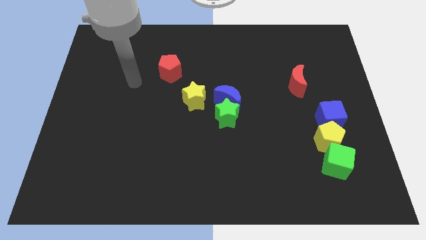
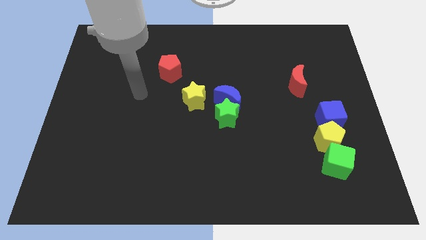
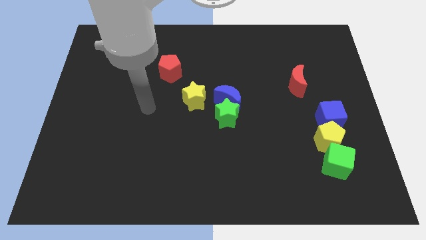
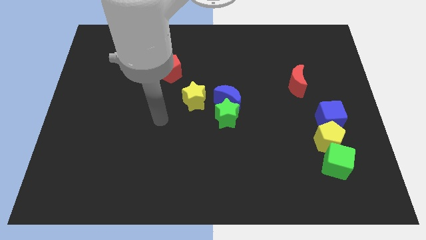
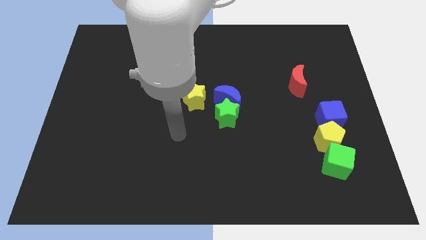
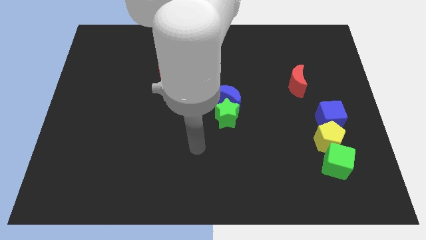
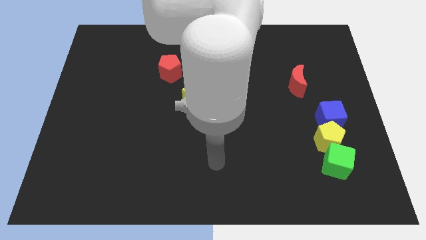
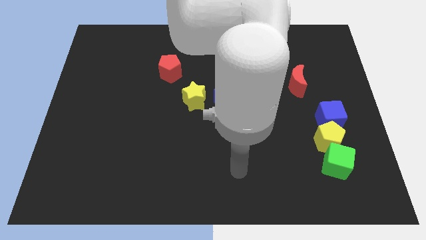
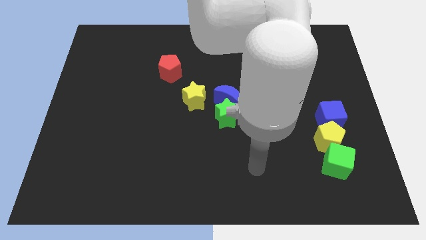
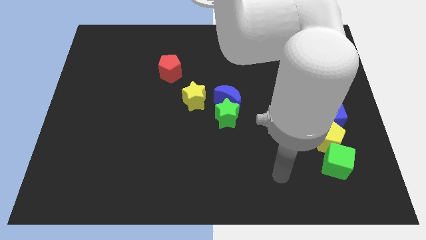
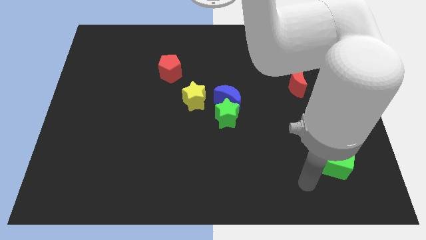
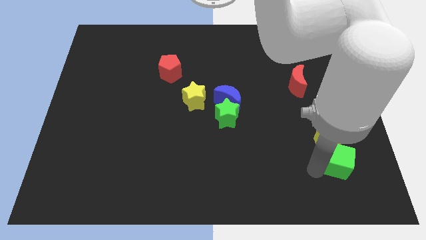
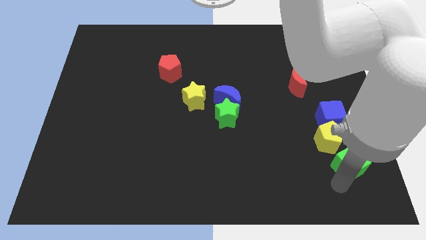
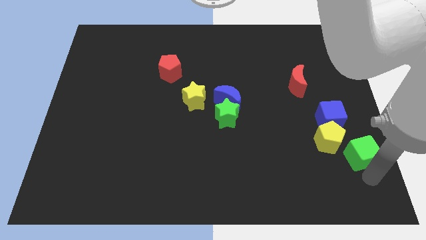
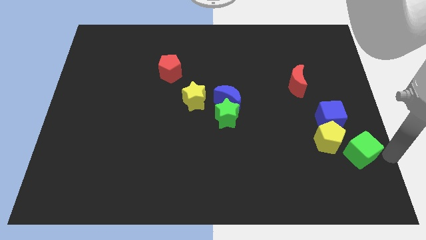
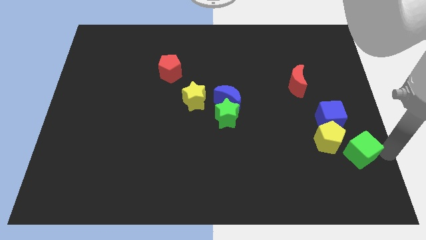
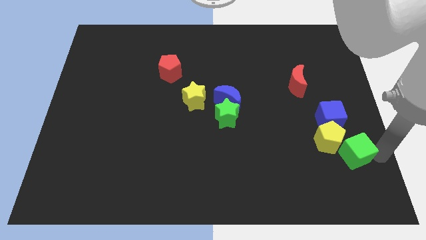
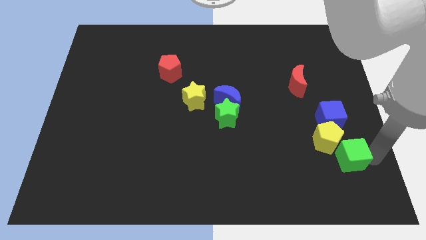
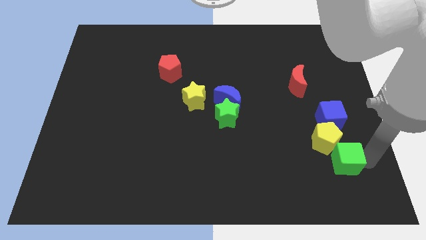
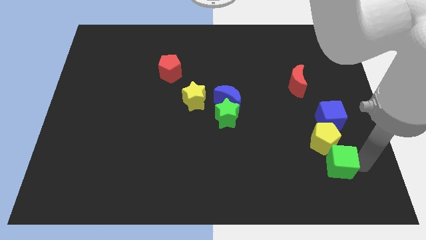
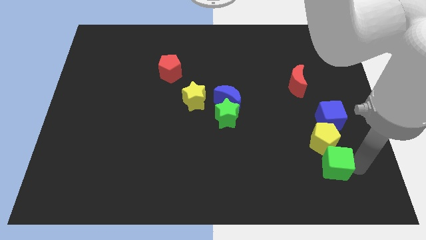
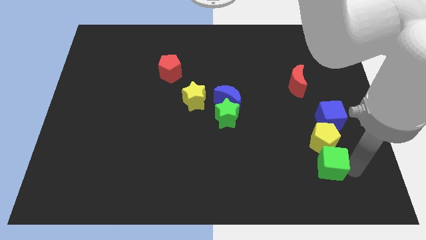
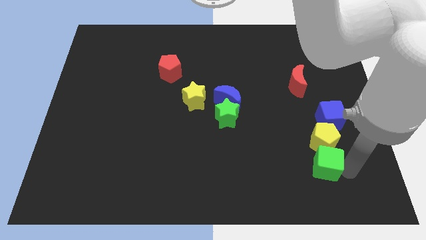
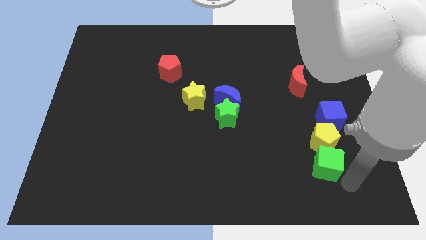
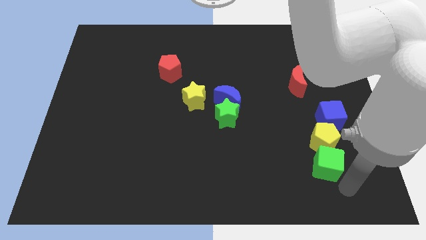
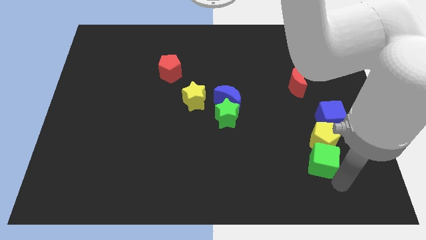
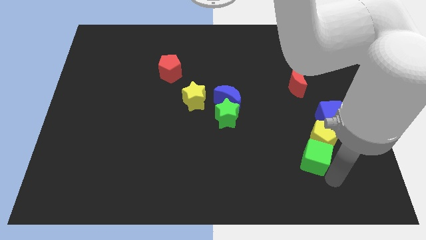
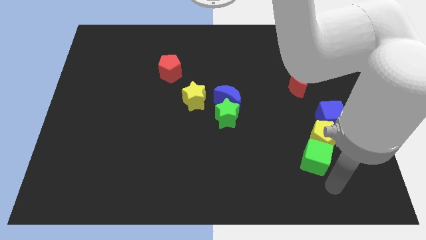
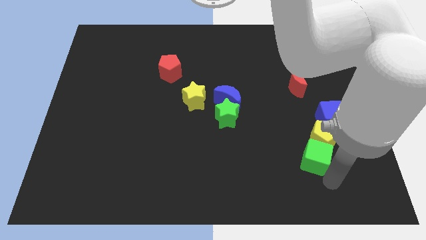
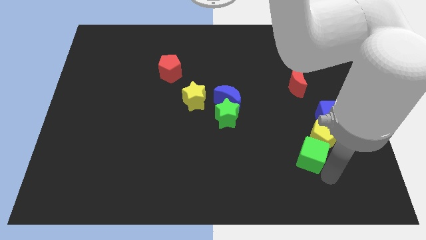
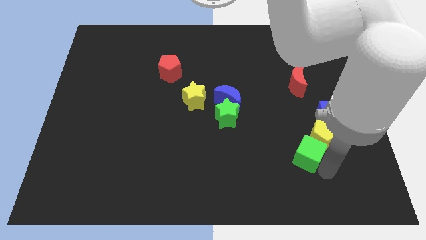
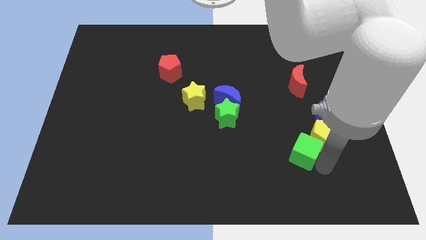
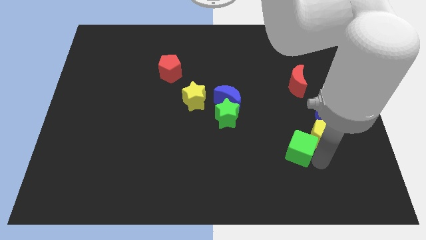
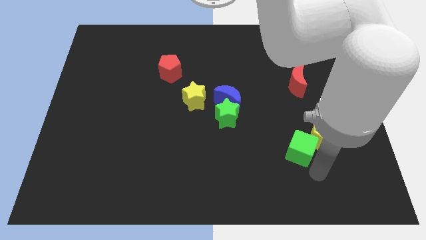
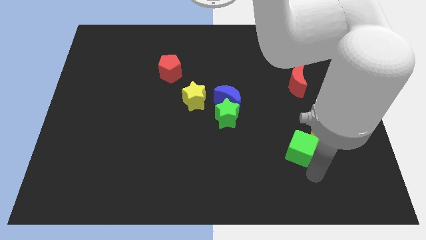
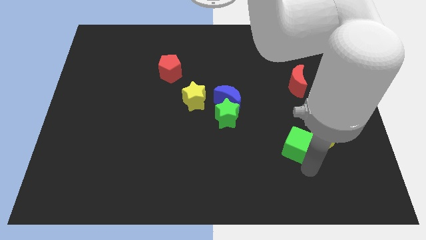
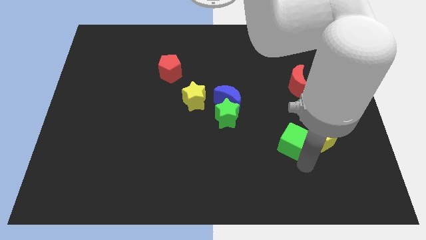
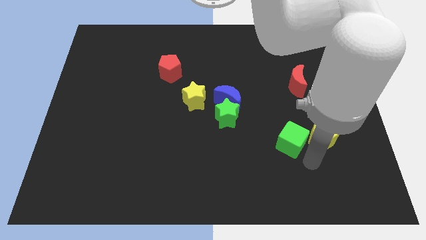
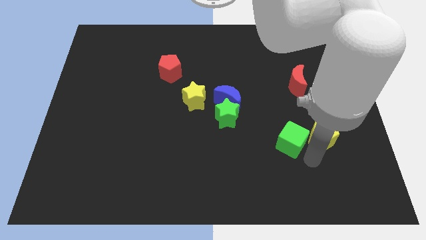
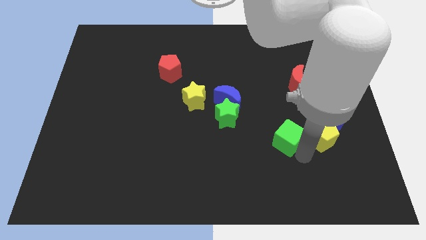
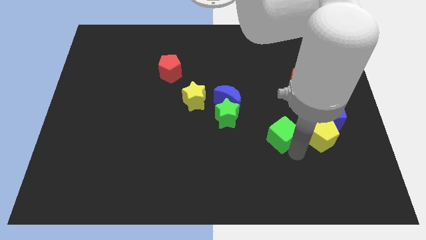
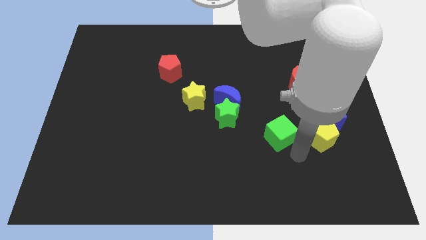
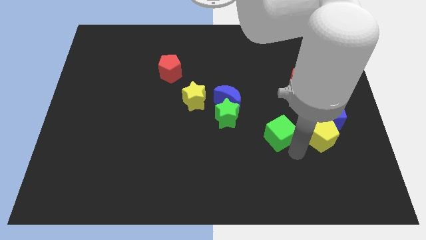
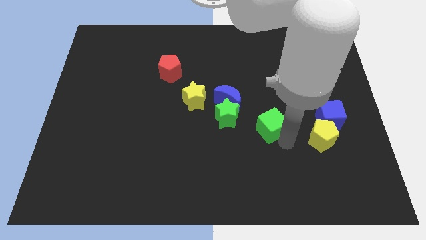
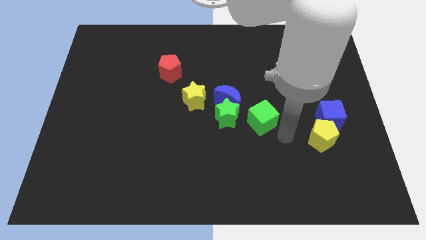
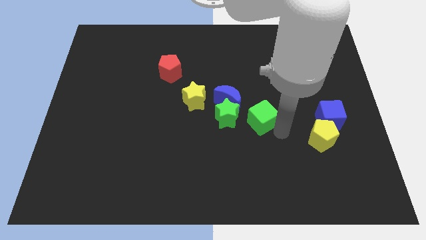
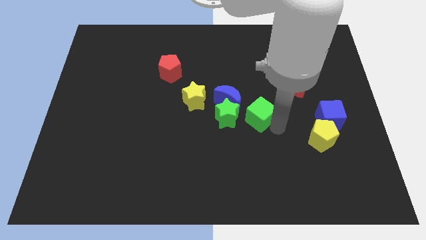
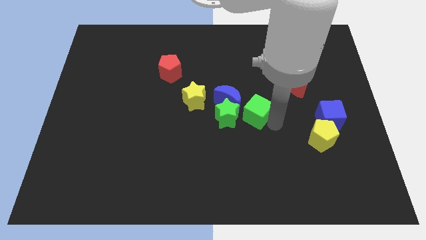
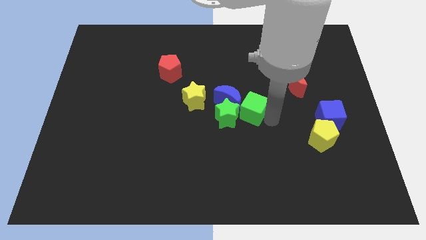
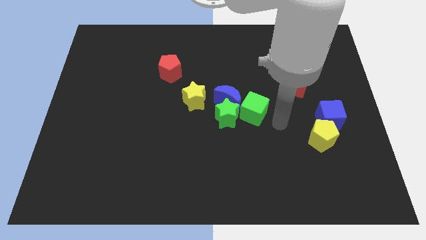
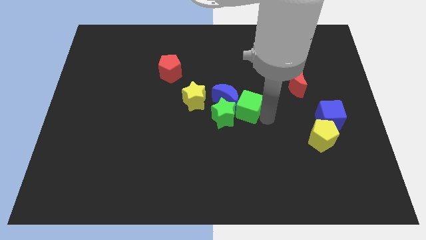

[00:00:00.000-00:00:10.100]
slide the green cube close to the blue moon

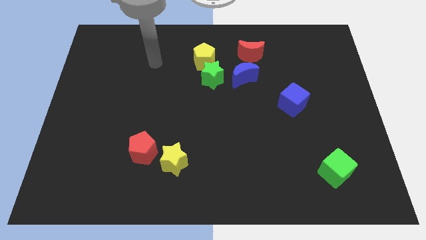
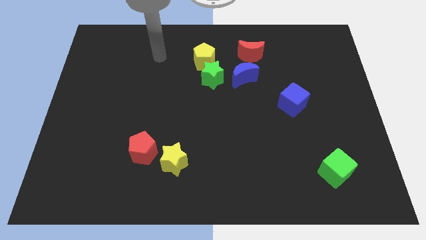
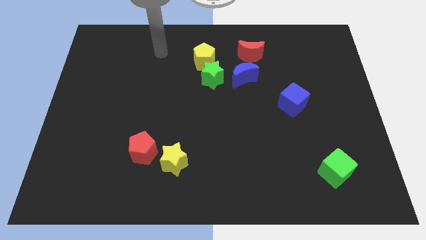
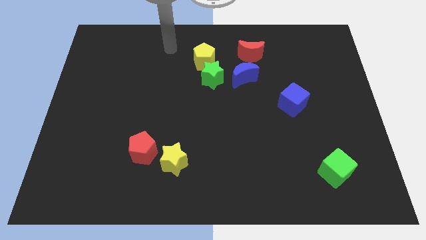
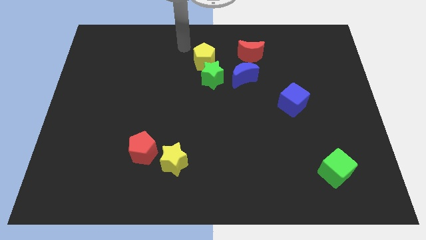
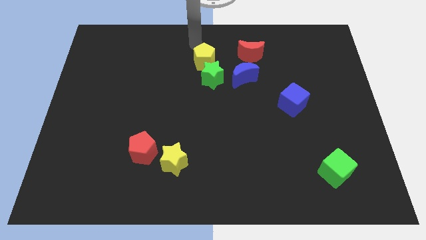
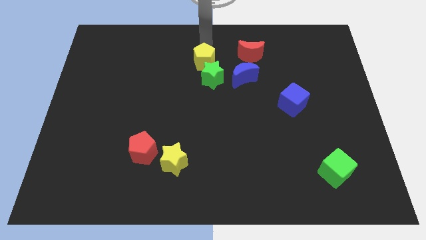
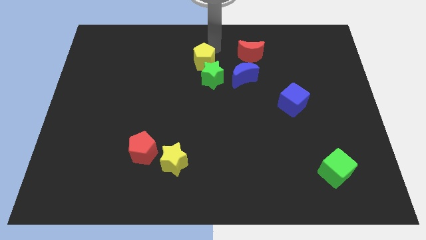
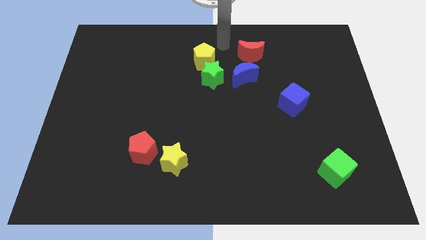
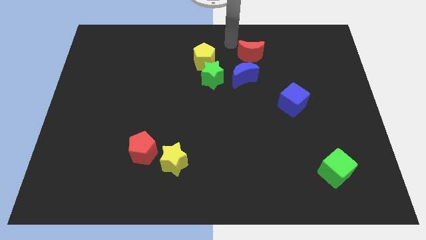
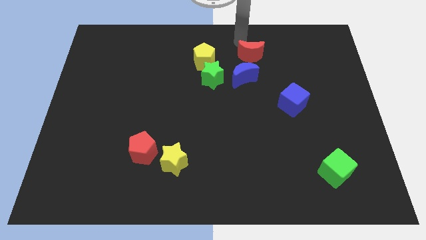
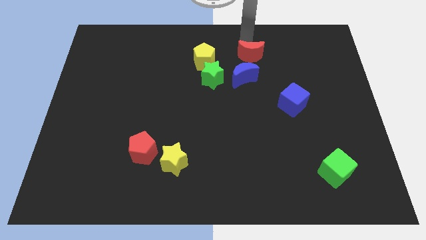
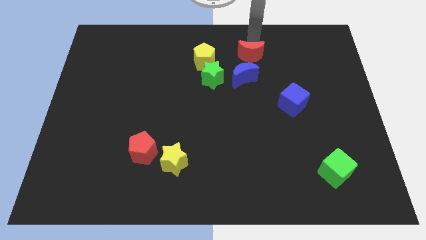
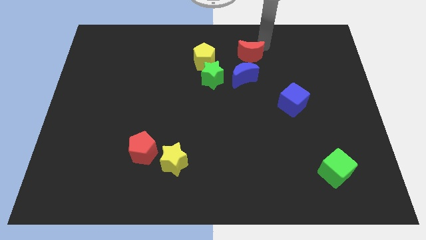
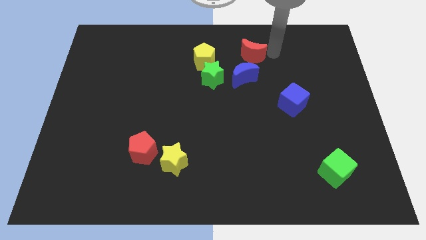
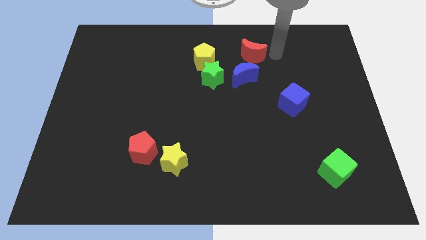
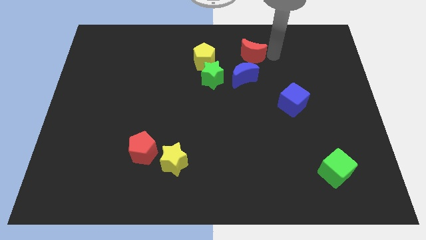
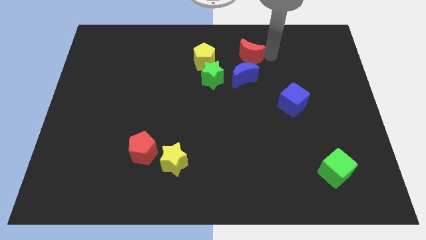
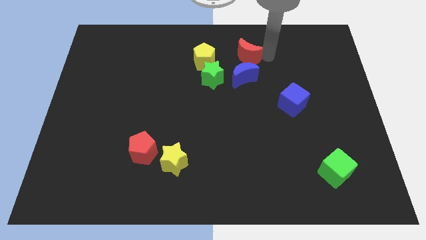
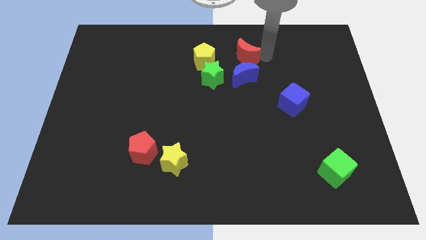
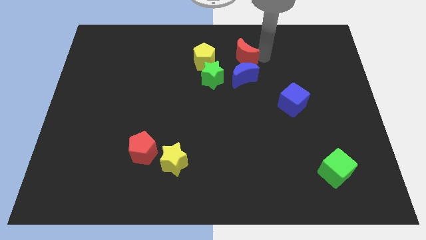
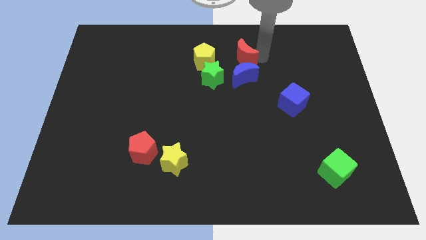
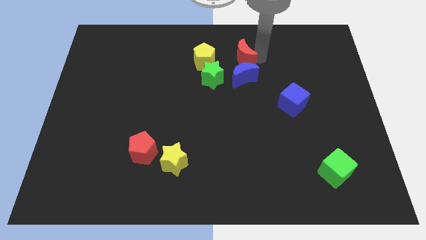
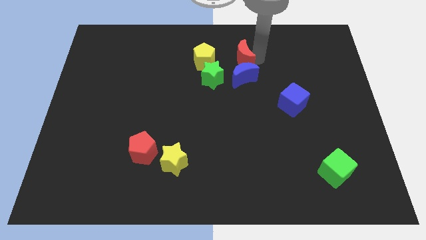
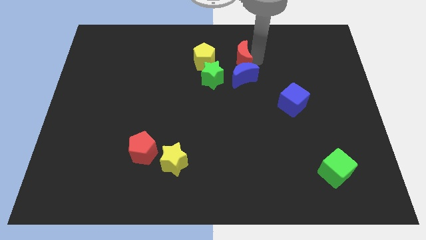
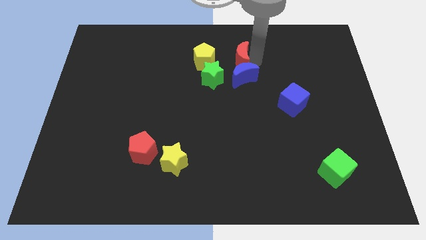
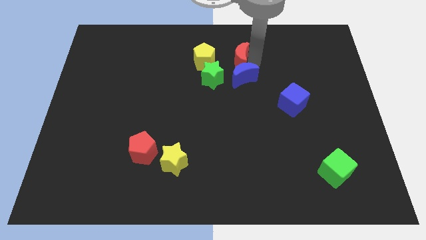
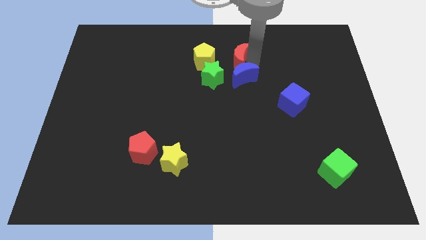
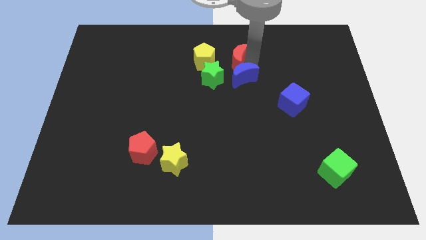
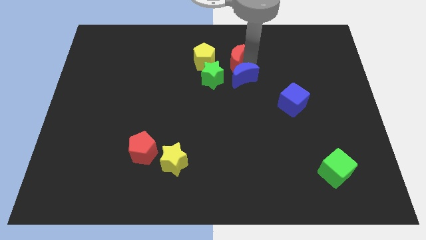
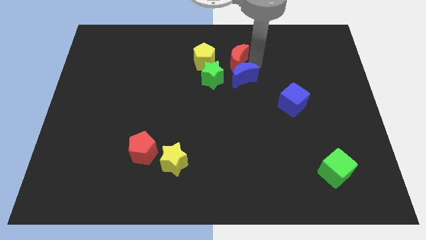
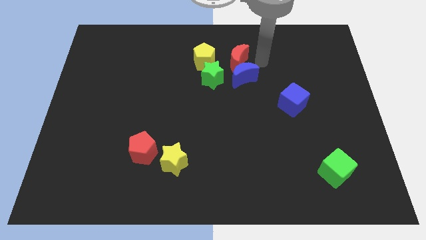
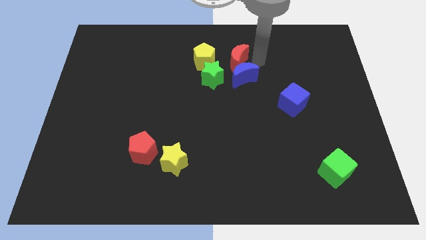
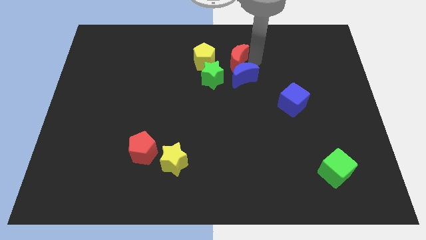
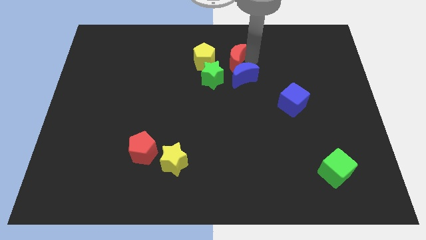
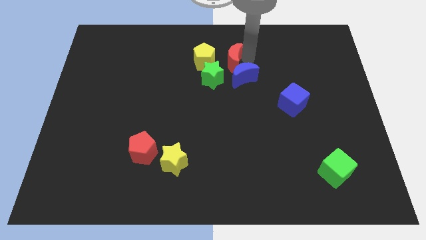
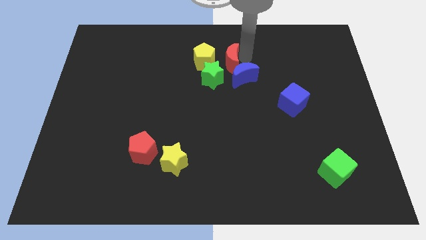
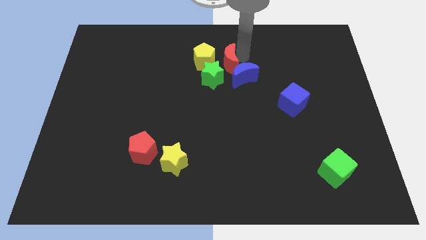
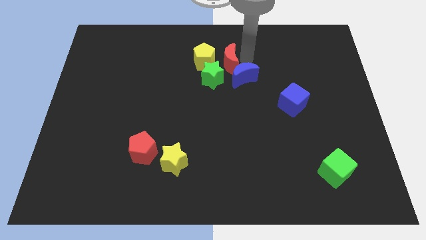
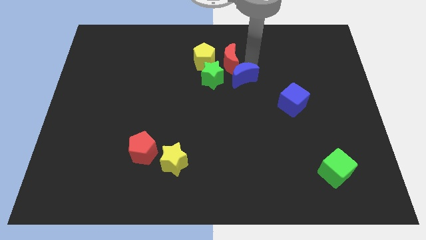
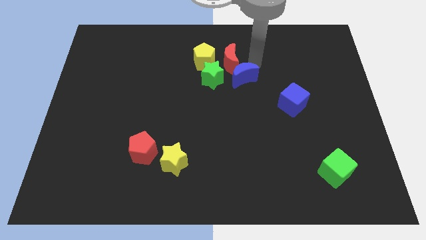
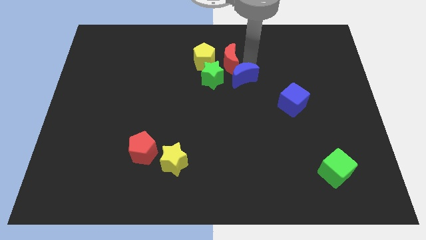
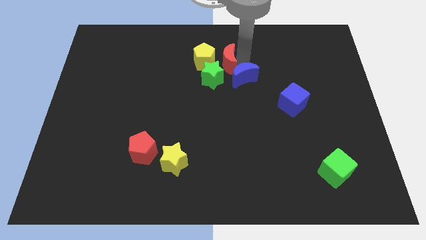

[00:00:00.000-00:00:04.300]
put the red moon towards the yellow pentagon
